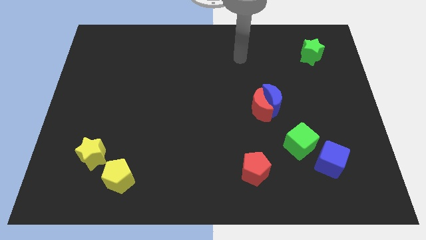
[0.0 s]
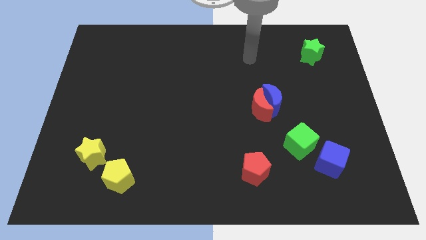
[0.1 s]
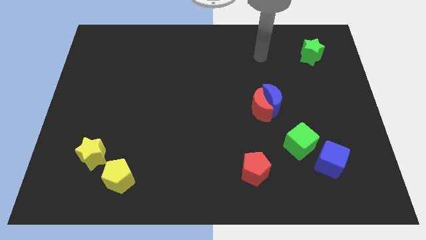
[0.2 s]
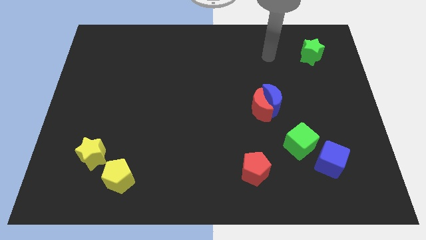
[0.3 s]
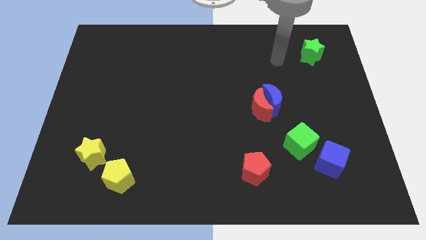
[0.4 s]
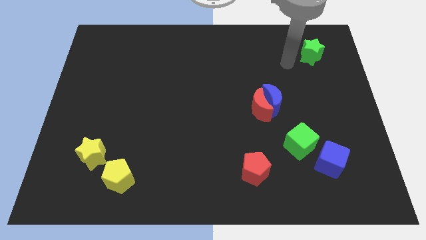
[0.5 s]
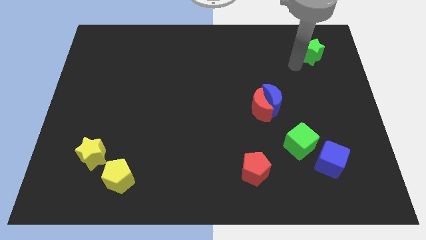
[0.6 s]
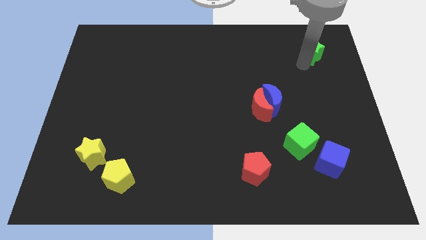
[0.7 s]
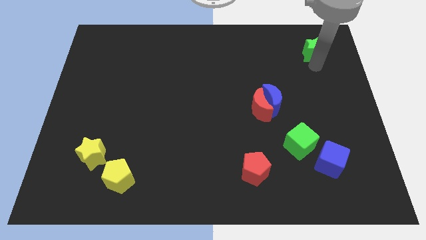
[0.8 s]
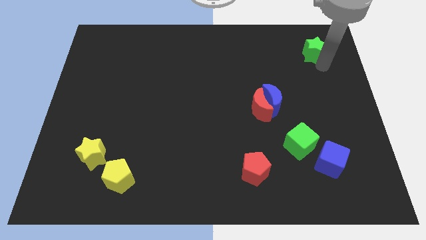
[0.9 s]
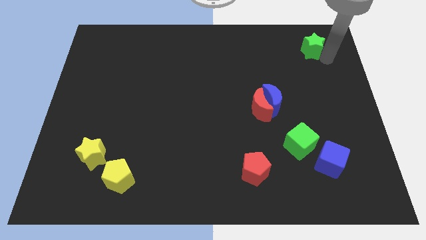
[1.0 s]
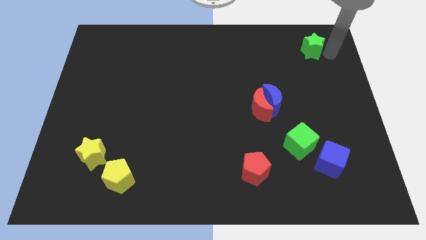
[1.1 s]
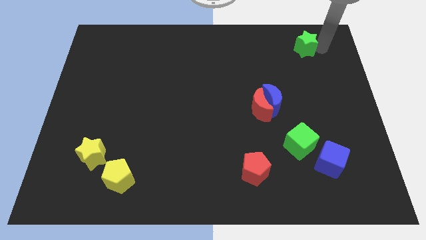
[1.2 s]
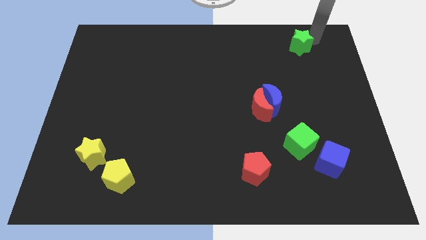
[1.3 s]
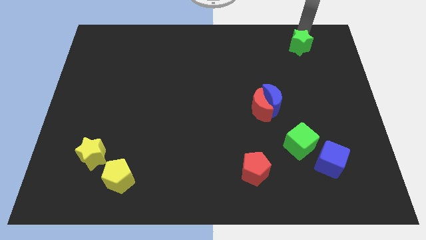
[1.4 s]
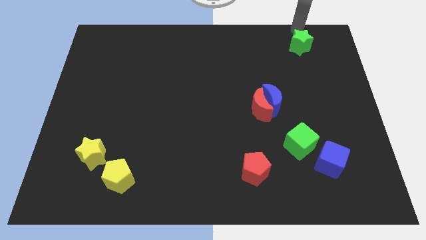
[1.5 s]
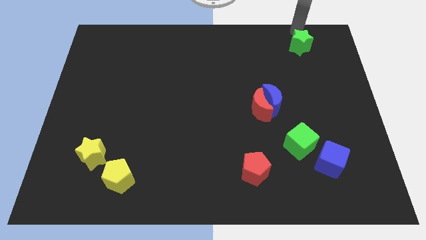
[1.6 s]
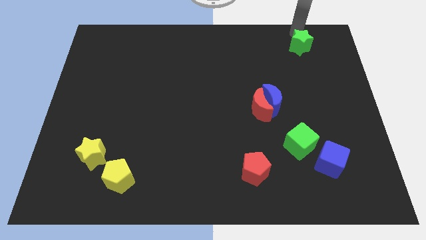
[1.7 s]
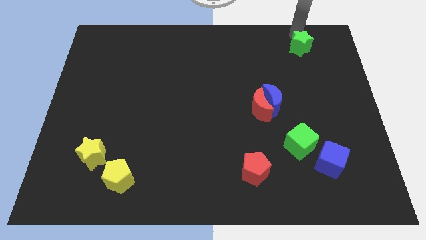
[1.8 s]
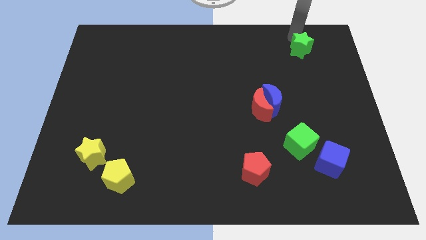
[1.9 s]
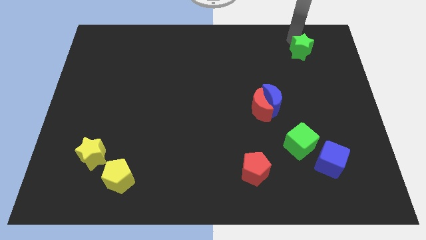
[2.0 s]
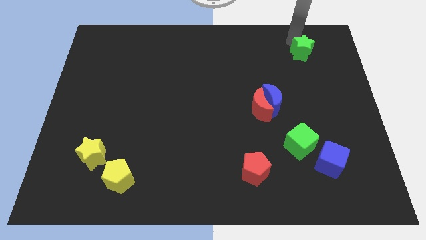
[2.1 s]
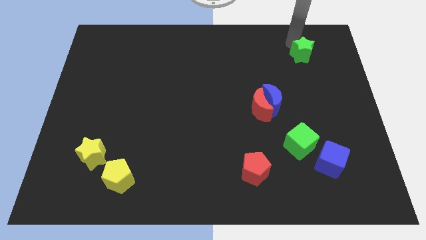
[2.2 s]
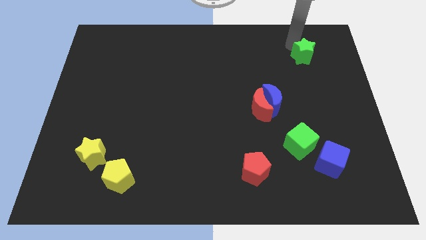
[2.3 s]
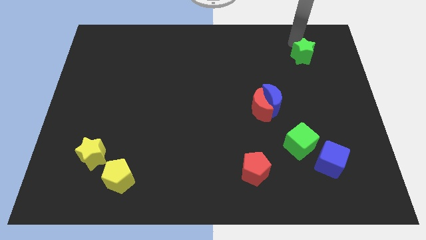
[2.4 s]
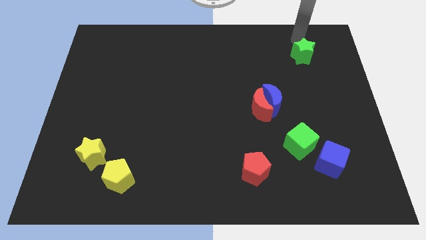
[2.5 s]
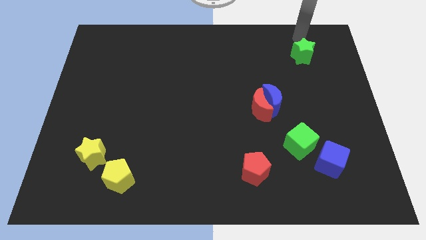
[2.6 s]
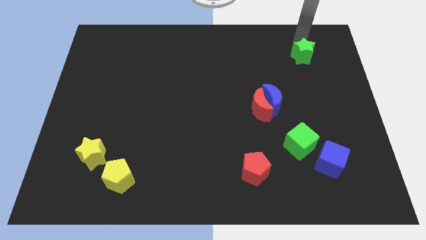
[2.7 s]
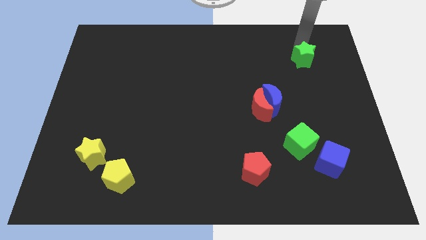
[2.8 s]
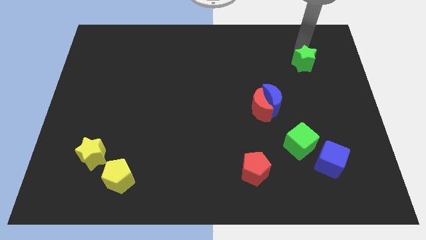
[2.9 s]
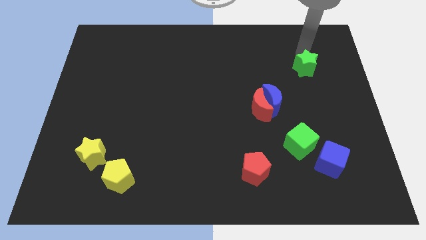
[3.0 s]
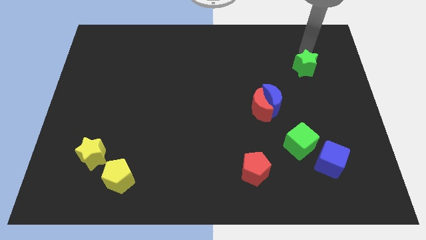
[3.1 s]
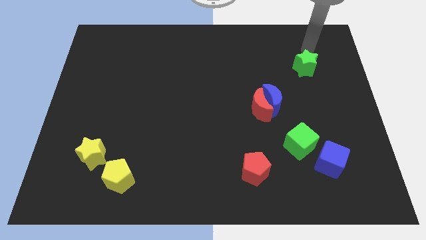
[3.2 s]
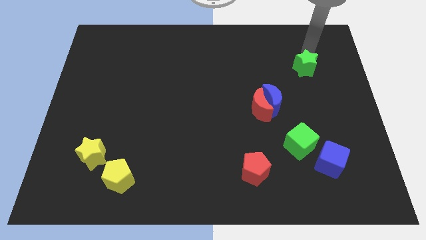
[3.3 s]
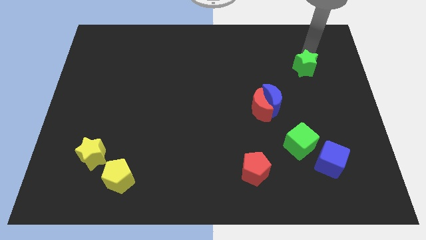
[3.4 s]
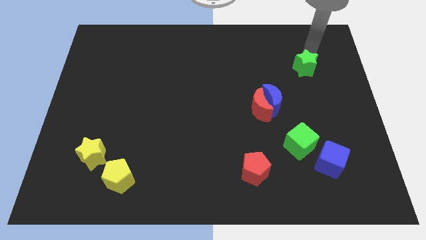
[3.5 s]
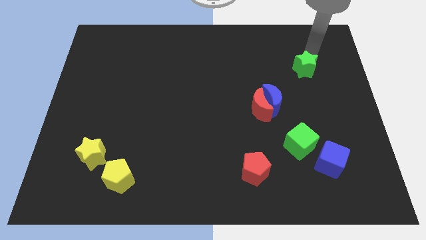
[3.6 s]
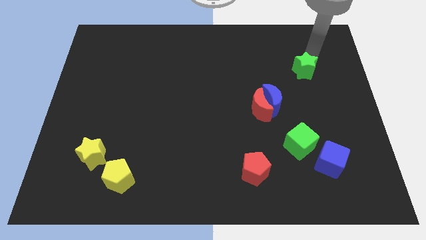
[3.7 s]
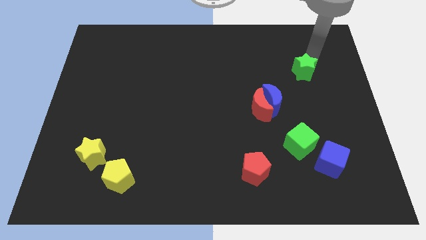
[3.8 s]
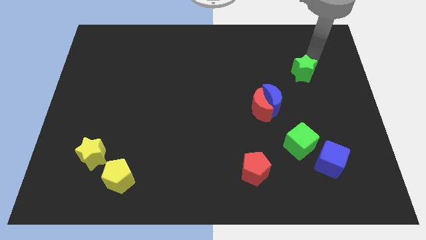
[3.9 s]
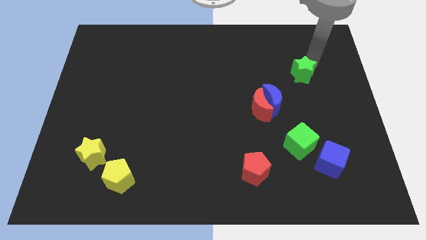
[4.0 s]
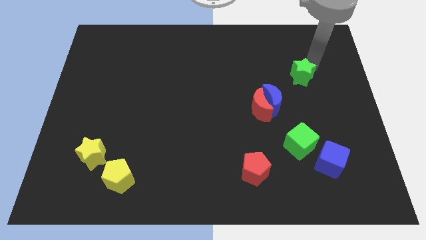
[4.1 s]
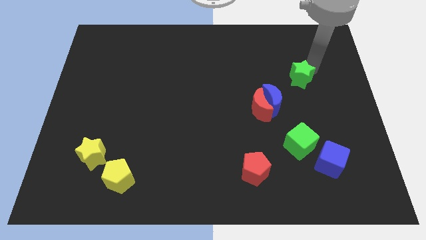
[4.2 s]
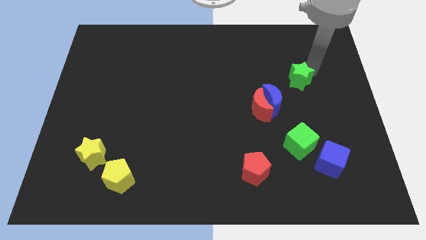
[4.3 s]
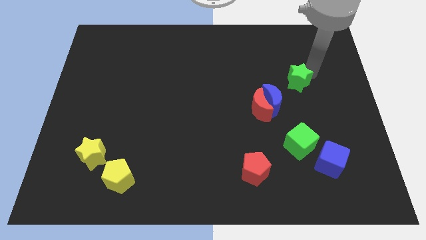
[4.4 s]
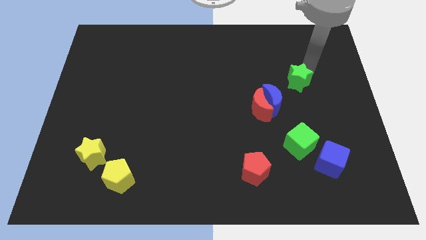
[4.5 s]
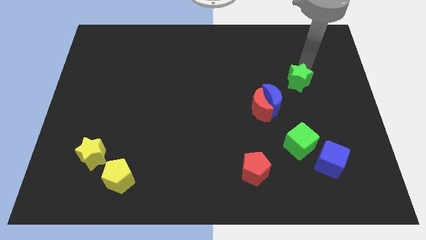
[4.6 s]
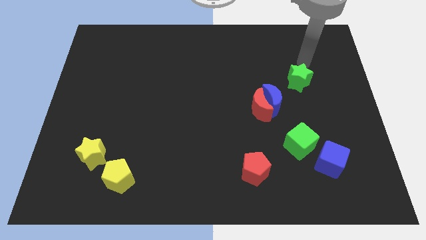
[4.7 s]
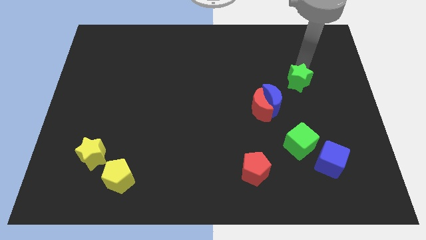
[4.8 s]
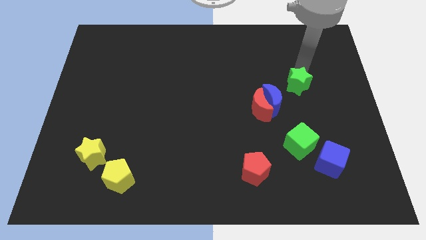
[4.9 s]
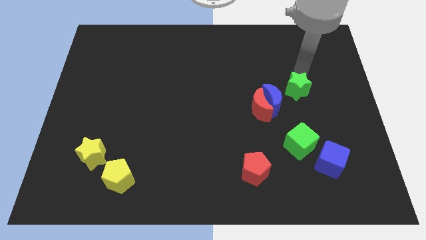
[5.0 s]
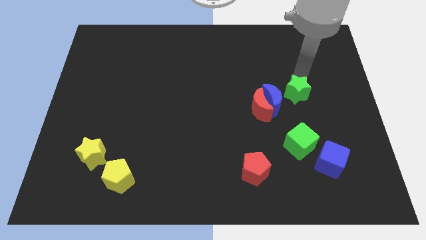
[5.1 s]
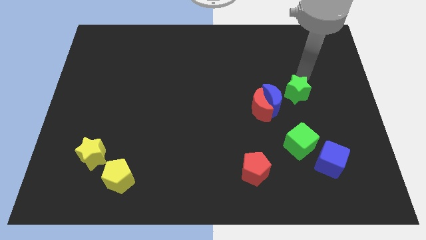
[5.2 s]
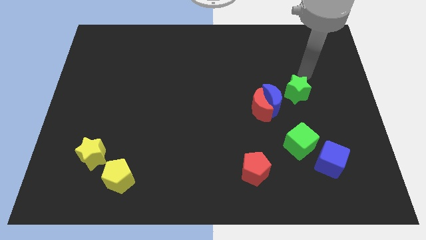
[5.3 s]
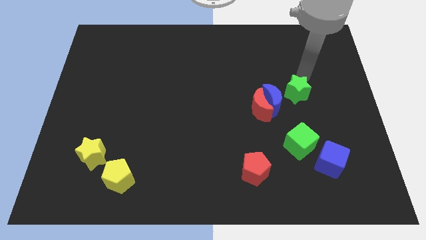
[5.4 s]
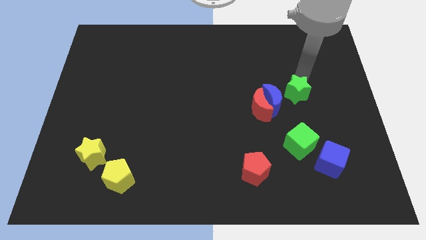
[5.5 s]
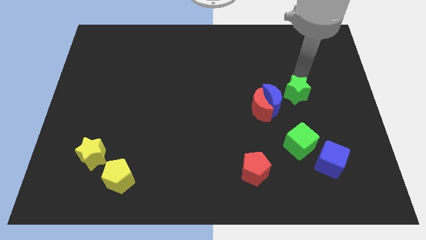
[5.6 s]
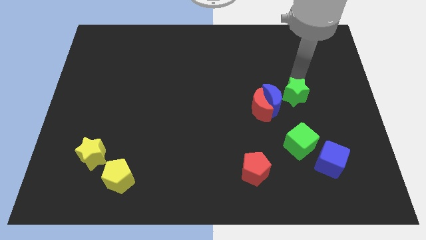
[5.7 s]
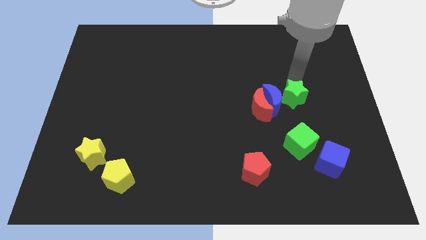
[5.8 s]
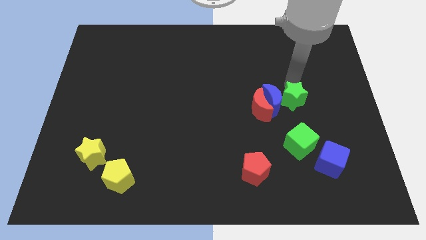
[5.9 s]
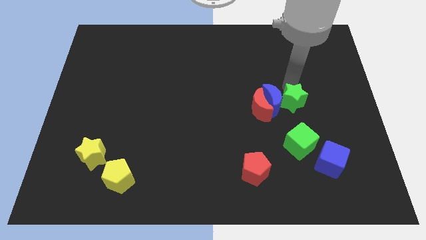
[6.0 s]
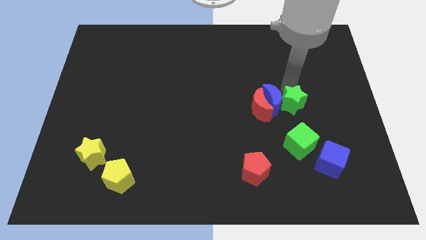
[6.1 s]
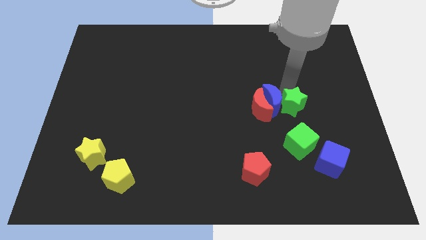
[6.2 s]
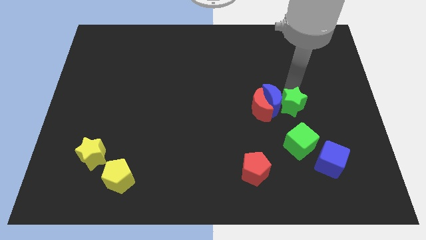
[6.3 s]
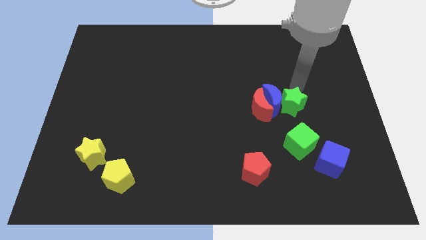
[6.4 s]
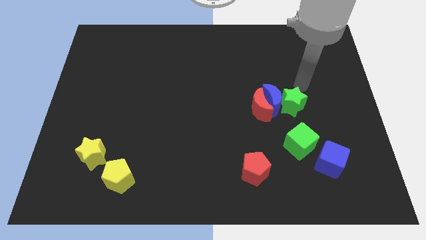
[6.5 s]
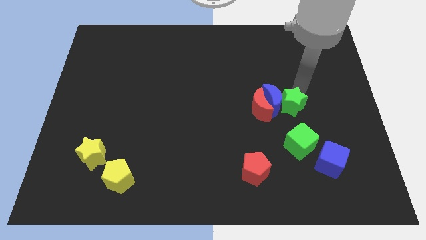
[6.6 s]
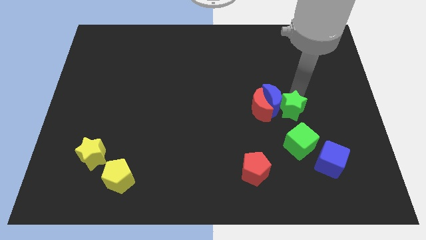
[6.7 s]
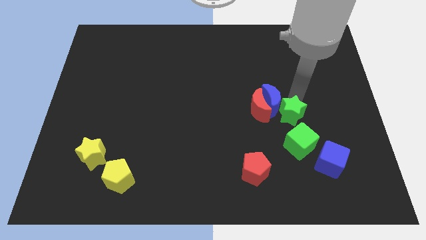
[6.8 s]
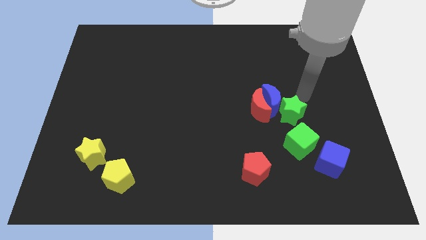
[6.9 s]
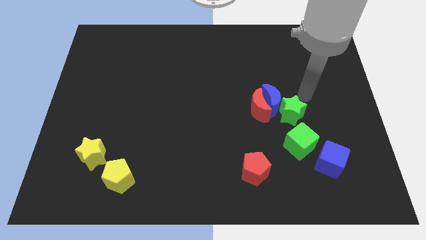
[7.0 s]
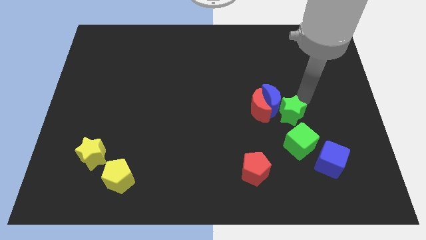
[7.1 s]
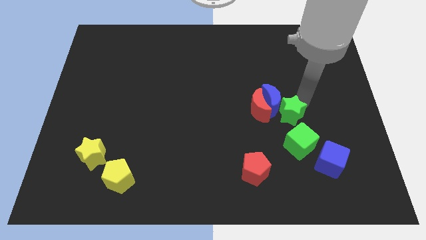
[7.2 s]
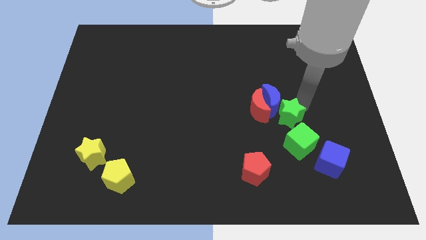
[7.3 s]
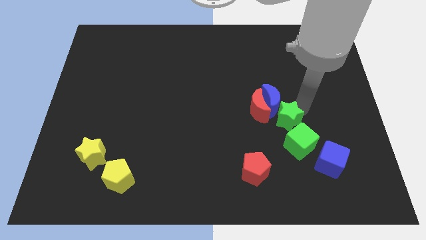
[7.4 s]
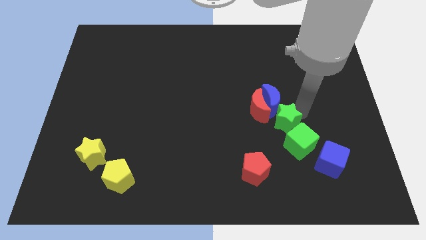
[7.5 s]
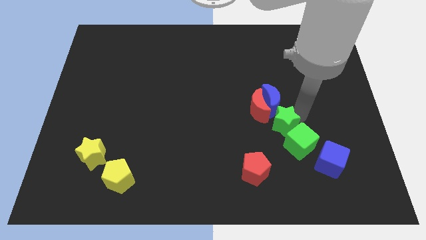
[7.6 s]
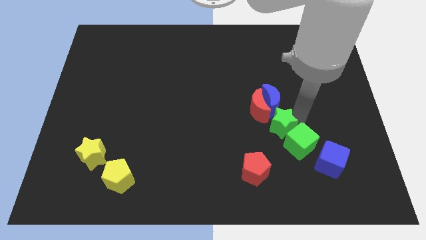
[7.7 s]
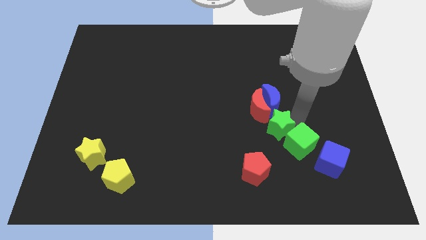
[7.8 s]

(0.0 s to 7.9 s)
slide the green star to the bottom side of the red moon
